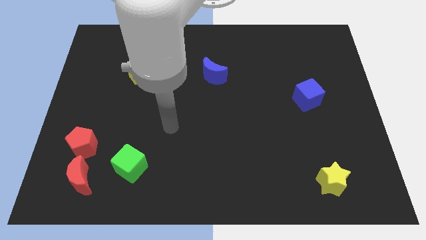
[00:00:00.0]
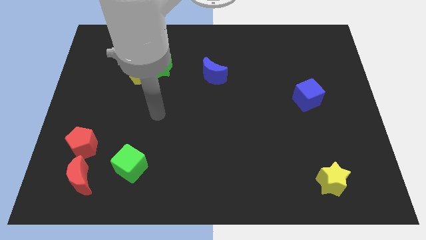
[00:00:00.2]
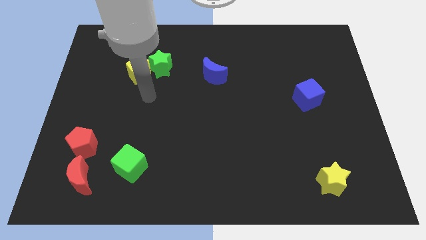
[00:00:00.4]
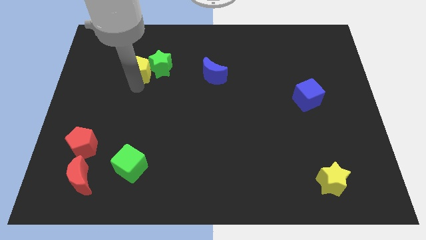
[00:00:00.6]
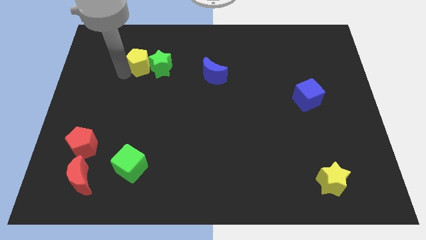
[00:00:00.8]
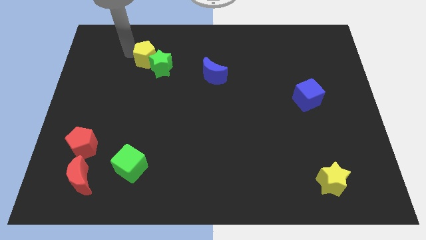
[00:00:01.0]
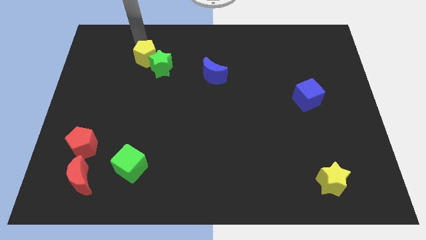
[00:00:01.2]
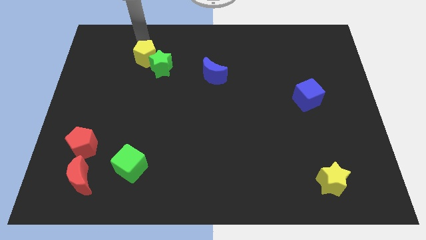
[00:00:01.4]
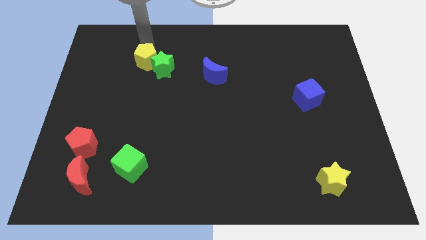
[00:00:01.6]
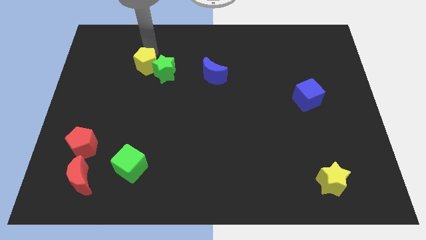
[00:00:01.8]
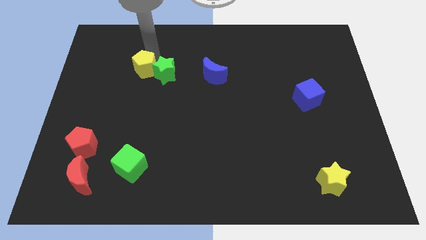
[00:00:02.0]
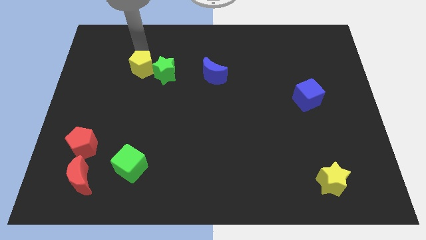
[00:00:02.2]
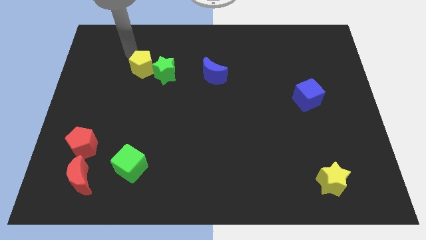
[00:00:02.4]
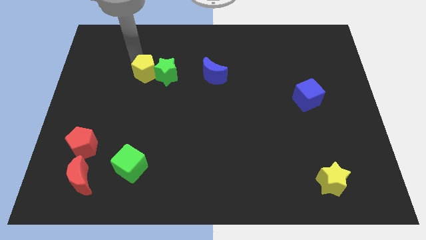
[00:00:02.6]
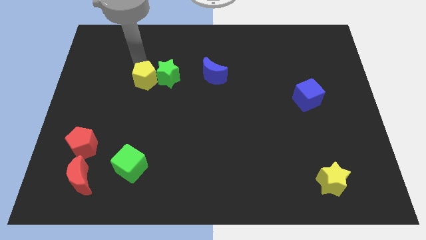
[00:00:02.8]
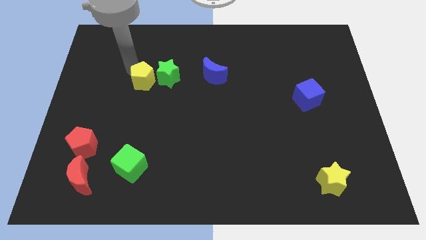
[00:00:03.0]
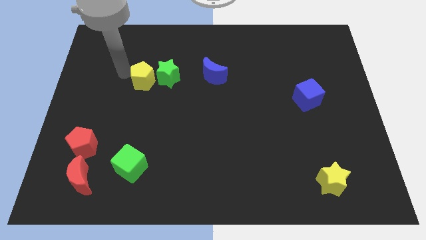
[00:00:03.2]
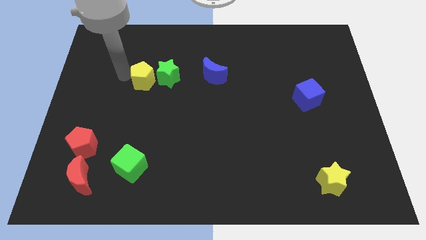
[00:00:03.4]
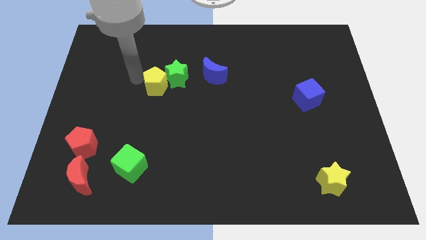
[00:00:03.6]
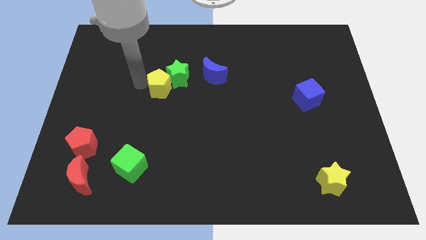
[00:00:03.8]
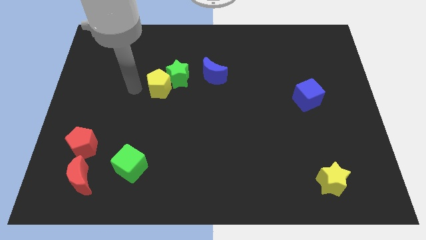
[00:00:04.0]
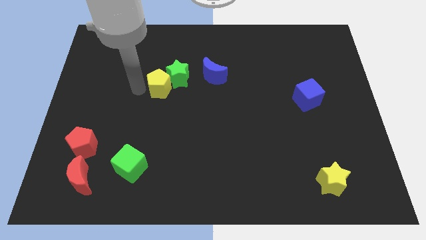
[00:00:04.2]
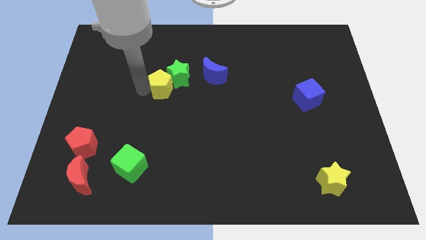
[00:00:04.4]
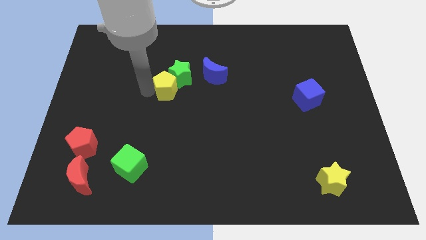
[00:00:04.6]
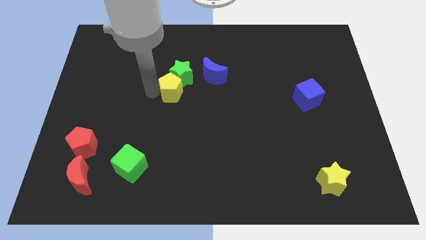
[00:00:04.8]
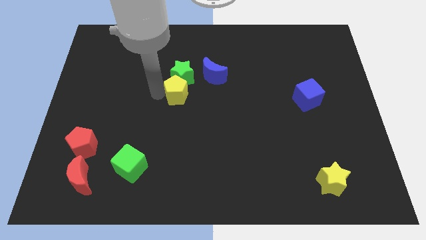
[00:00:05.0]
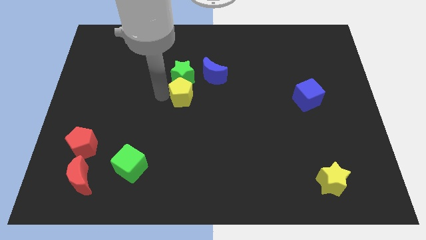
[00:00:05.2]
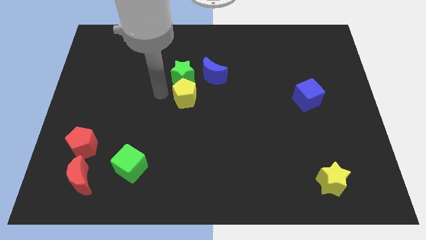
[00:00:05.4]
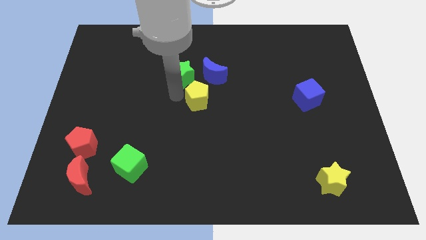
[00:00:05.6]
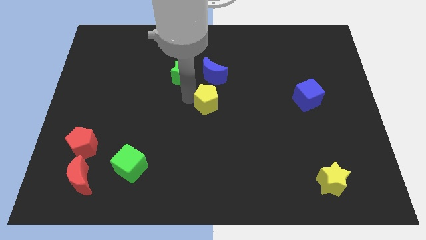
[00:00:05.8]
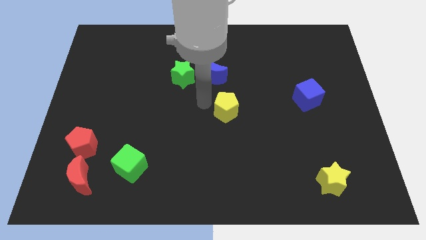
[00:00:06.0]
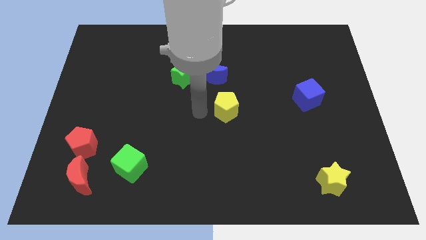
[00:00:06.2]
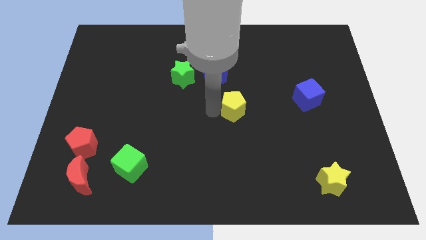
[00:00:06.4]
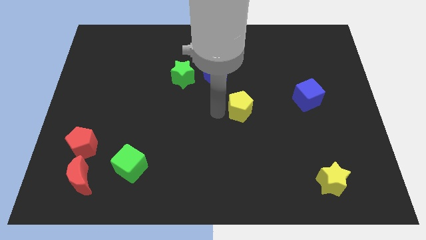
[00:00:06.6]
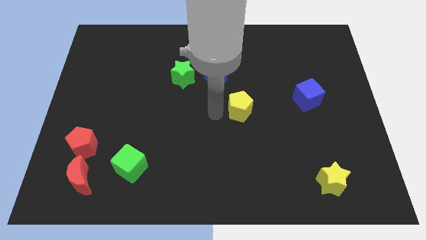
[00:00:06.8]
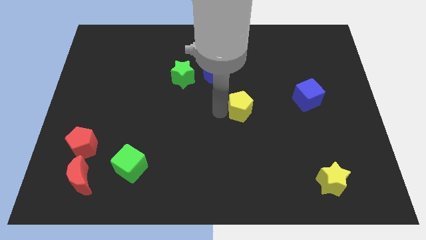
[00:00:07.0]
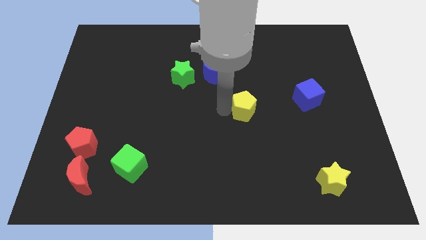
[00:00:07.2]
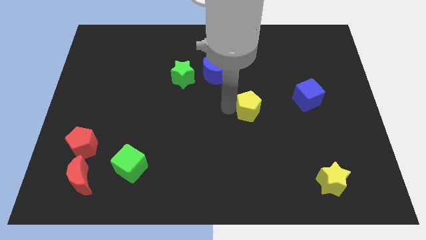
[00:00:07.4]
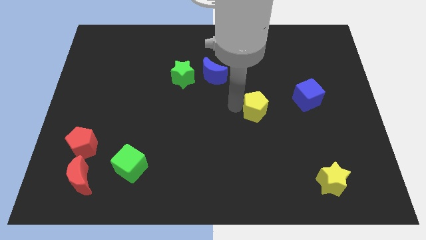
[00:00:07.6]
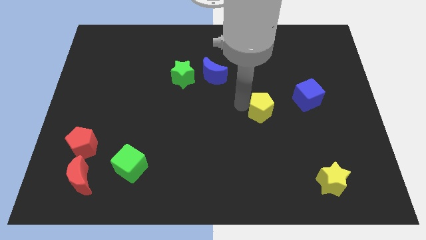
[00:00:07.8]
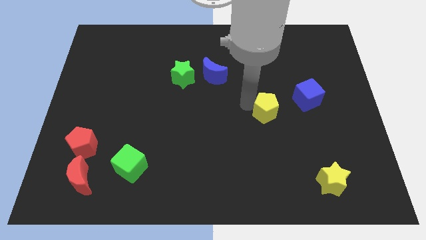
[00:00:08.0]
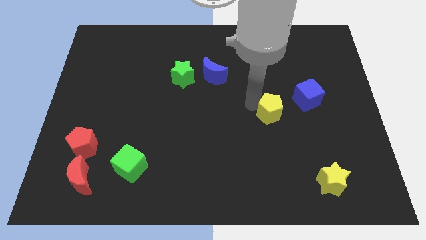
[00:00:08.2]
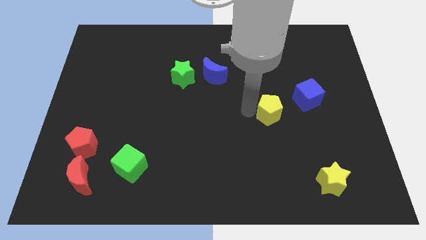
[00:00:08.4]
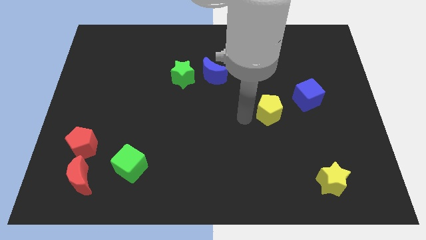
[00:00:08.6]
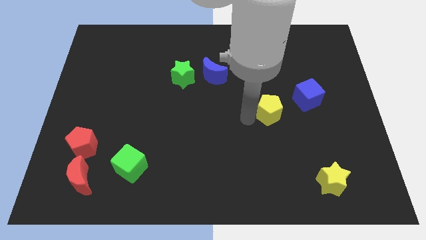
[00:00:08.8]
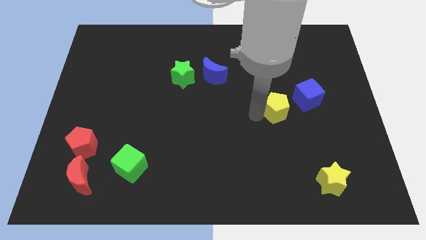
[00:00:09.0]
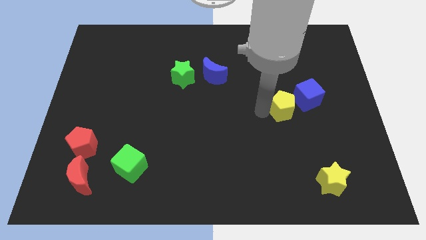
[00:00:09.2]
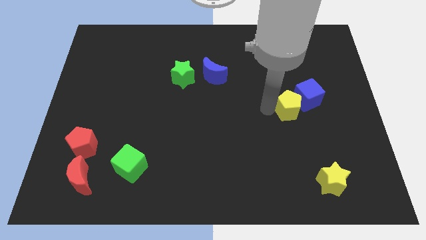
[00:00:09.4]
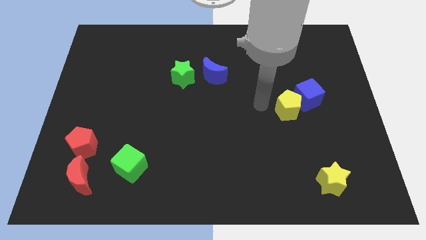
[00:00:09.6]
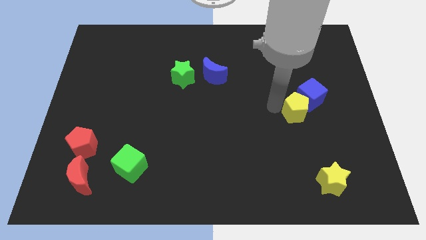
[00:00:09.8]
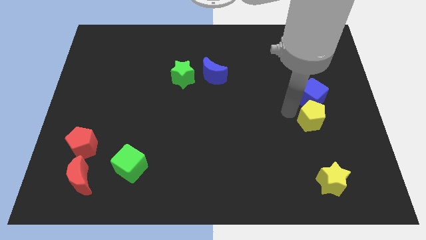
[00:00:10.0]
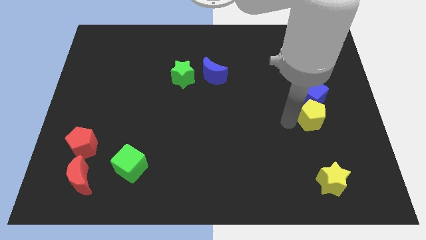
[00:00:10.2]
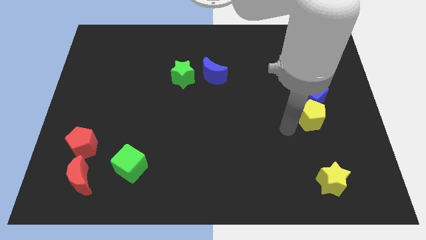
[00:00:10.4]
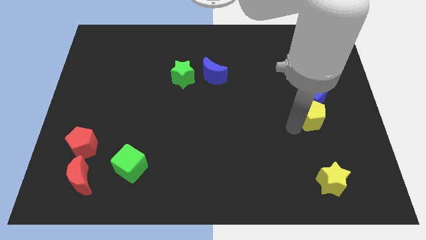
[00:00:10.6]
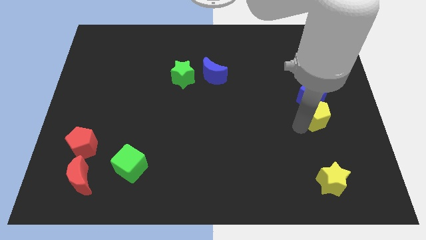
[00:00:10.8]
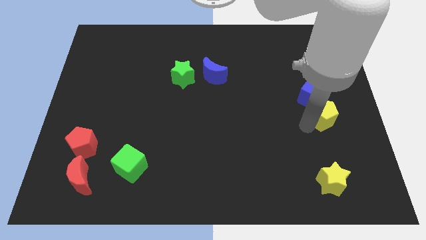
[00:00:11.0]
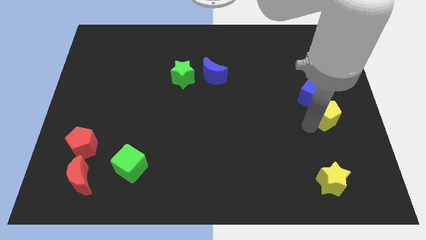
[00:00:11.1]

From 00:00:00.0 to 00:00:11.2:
put the yellow pentagon to the center right
